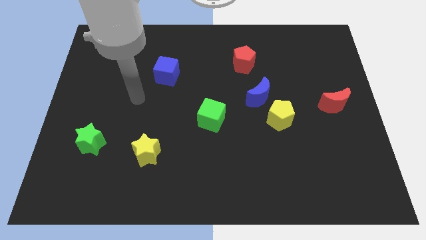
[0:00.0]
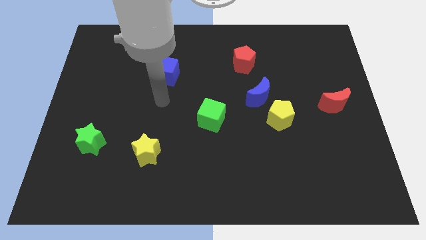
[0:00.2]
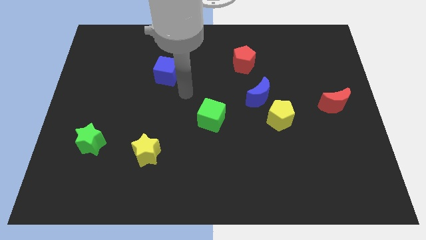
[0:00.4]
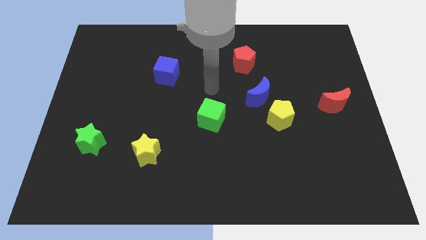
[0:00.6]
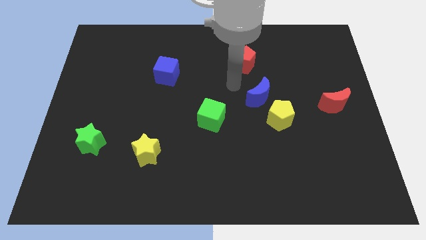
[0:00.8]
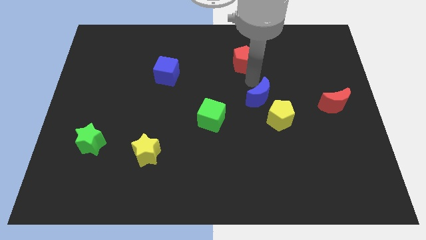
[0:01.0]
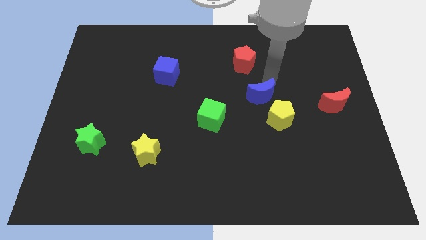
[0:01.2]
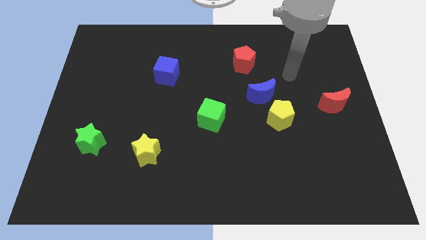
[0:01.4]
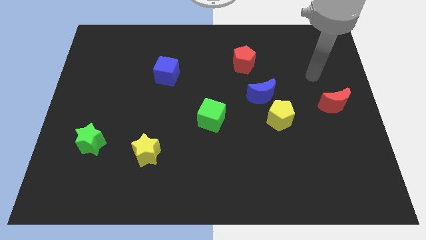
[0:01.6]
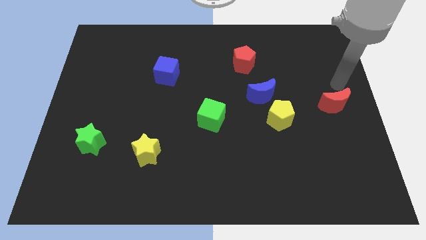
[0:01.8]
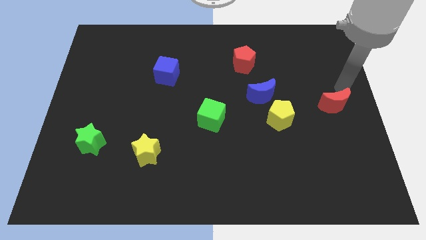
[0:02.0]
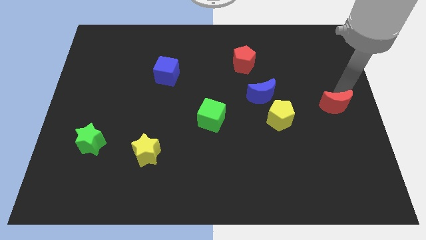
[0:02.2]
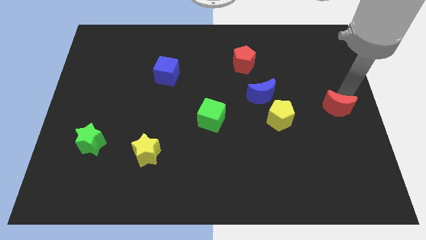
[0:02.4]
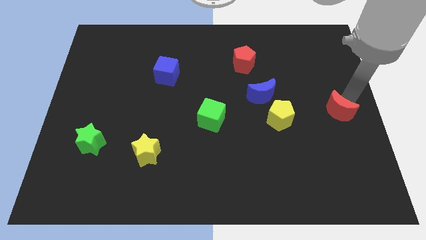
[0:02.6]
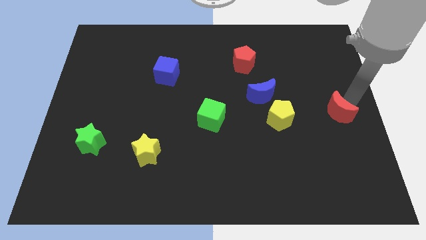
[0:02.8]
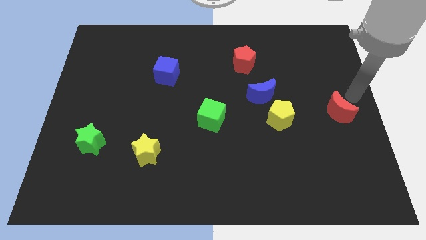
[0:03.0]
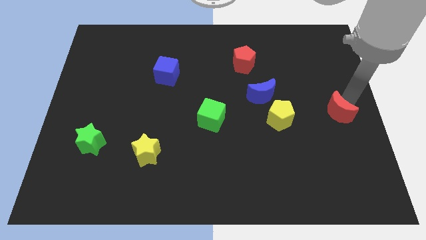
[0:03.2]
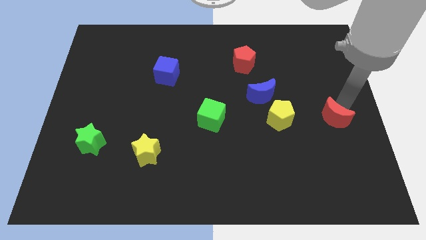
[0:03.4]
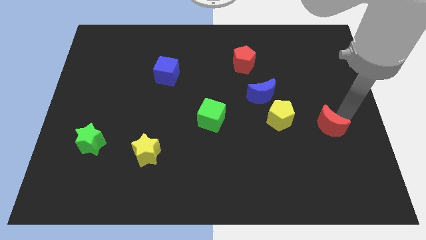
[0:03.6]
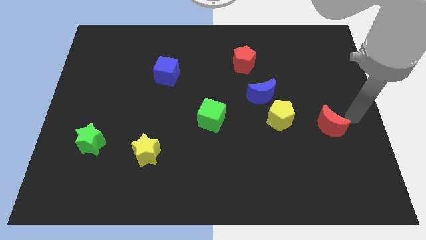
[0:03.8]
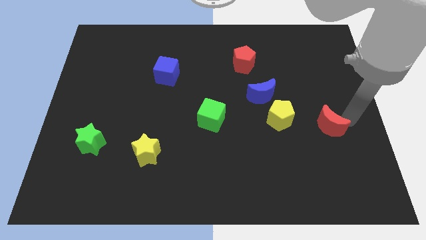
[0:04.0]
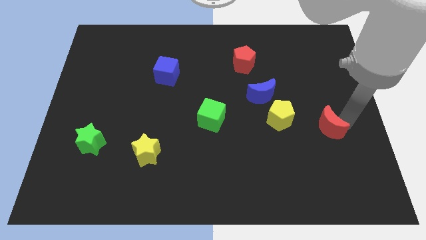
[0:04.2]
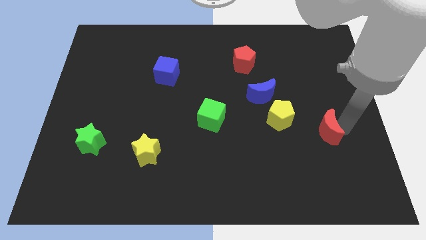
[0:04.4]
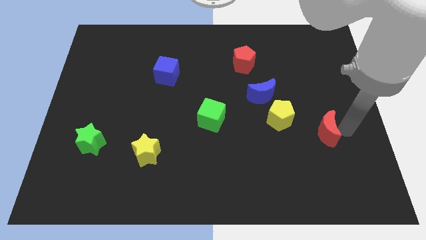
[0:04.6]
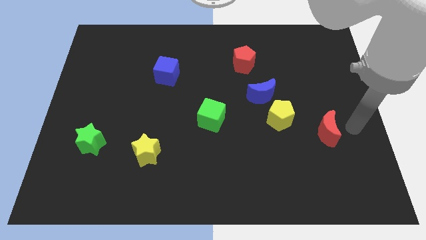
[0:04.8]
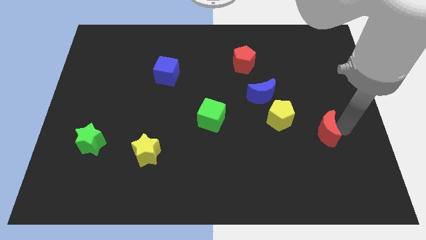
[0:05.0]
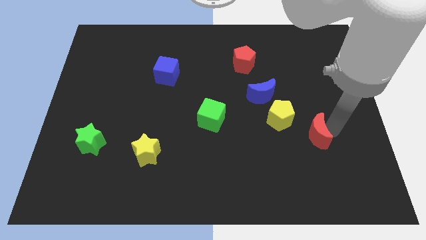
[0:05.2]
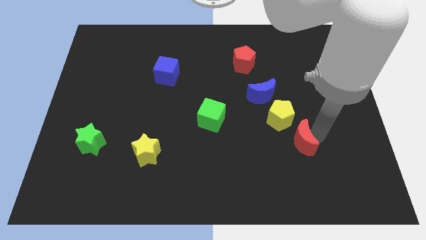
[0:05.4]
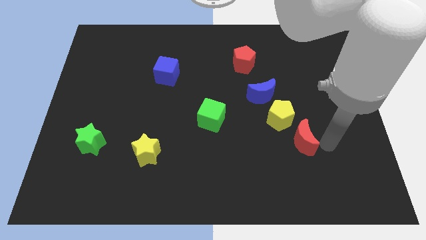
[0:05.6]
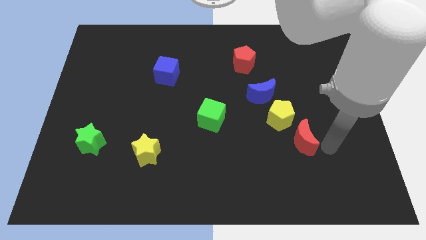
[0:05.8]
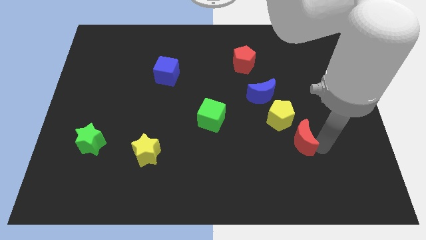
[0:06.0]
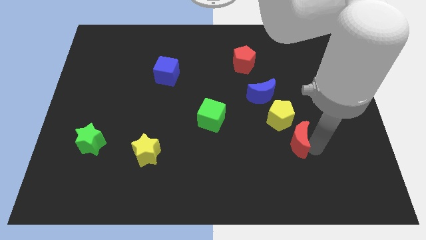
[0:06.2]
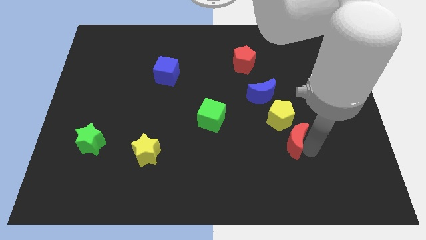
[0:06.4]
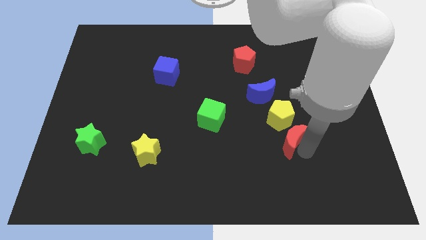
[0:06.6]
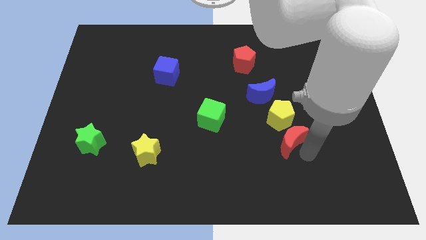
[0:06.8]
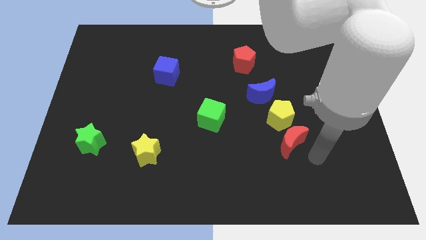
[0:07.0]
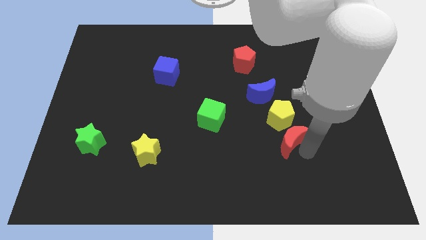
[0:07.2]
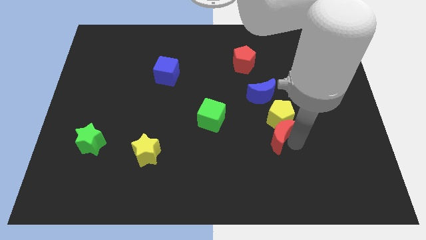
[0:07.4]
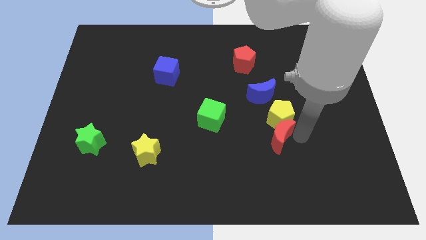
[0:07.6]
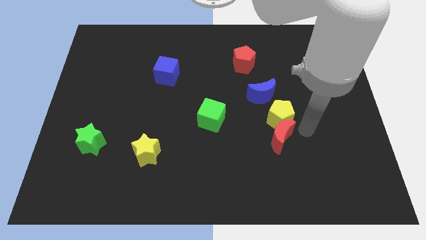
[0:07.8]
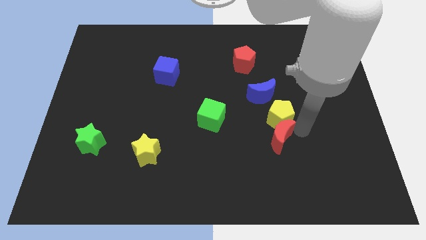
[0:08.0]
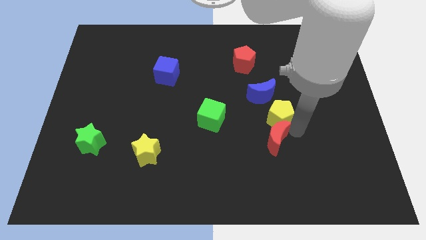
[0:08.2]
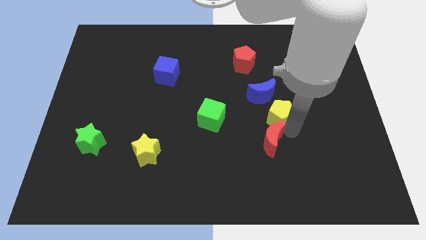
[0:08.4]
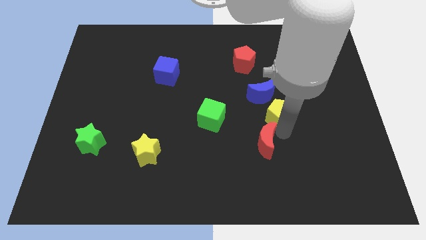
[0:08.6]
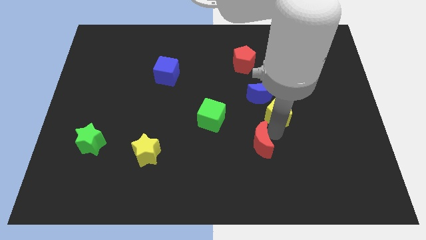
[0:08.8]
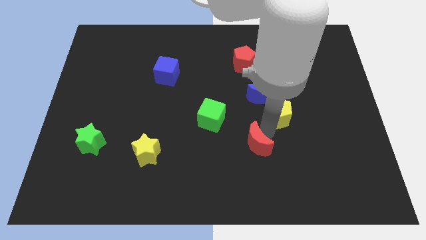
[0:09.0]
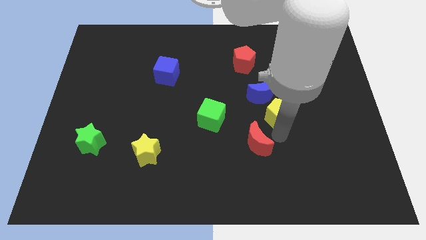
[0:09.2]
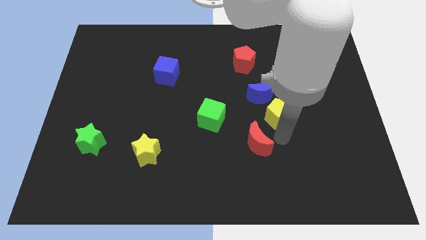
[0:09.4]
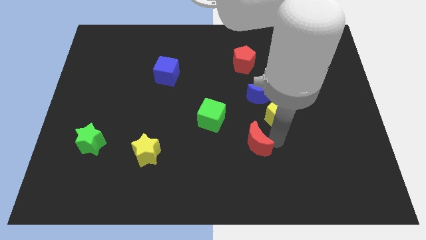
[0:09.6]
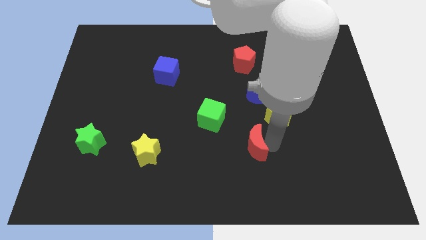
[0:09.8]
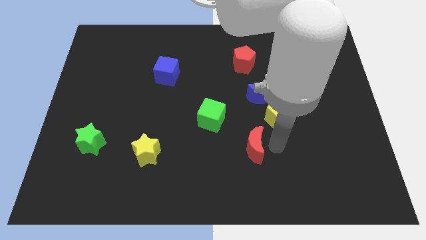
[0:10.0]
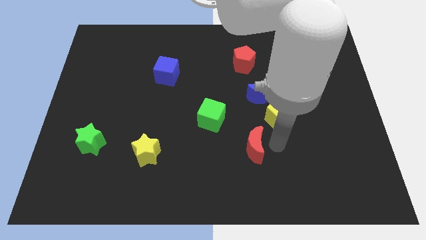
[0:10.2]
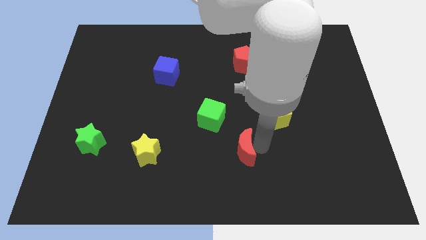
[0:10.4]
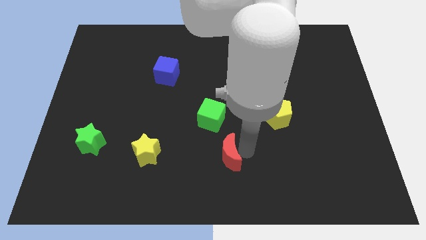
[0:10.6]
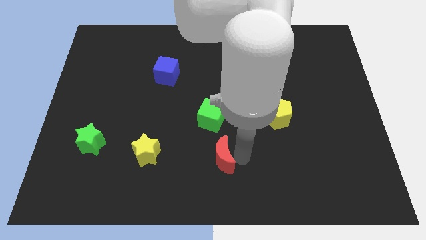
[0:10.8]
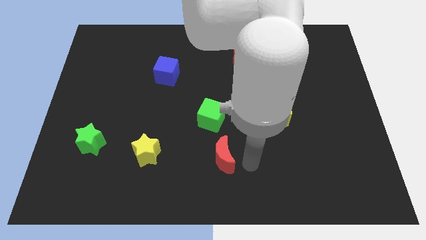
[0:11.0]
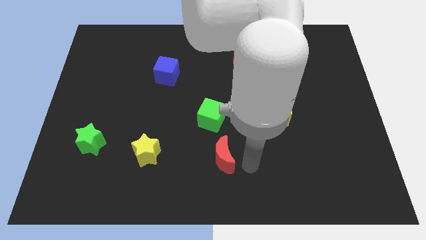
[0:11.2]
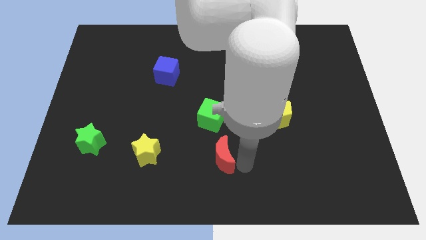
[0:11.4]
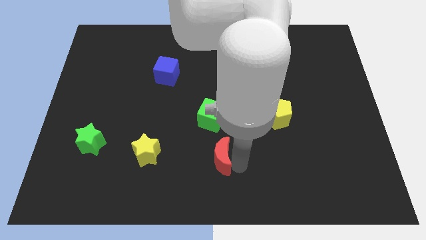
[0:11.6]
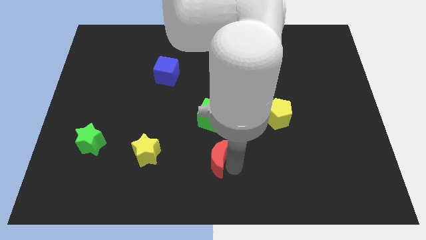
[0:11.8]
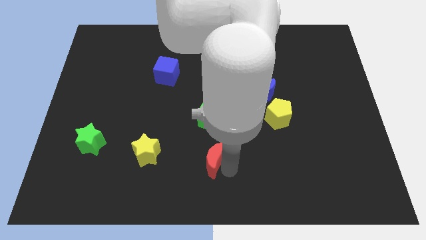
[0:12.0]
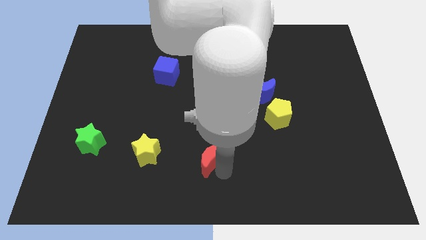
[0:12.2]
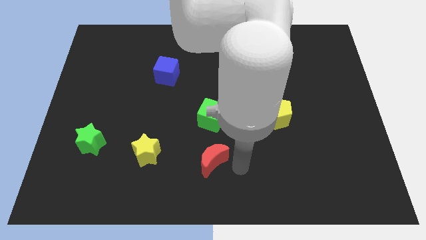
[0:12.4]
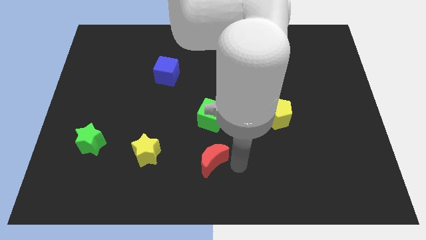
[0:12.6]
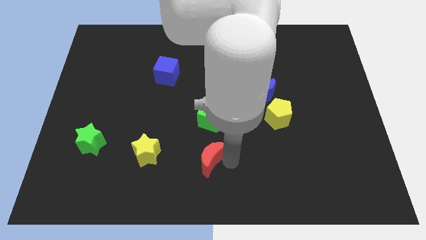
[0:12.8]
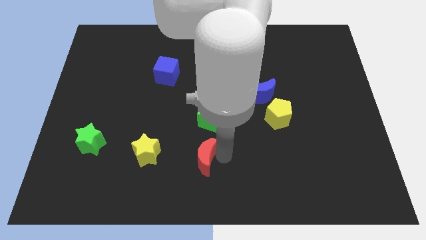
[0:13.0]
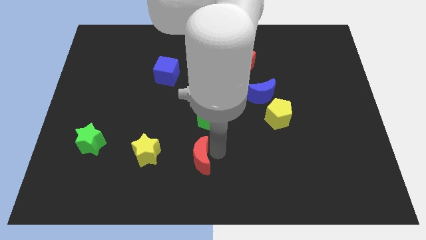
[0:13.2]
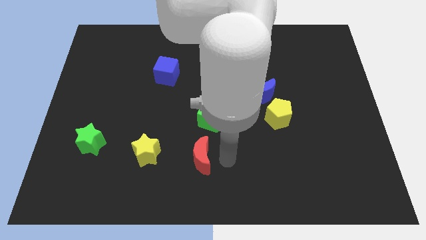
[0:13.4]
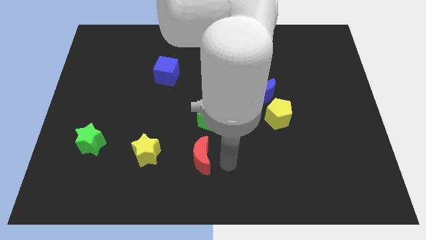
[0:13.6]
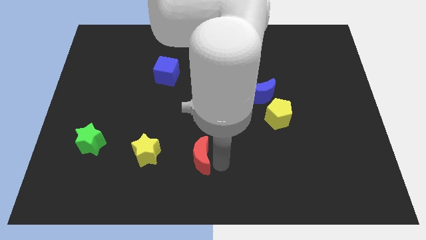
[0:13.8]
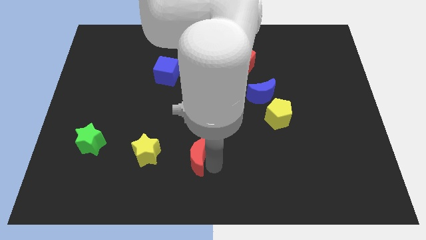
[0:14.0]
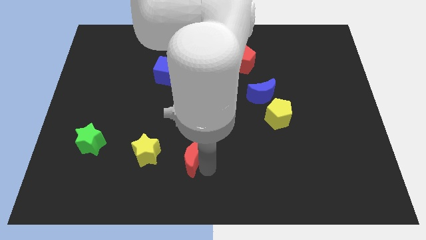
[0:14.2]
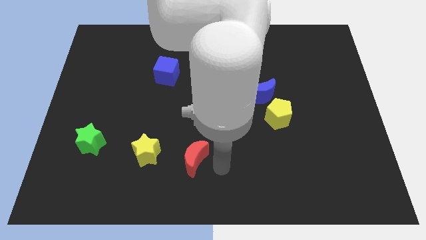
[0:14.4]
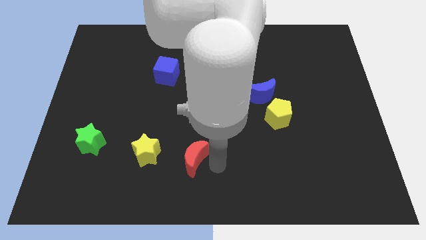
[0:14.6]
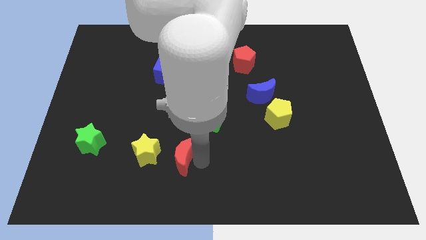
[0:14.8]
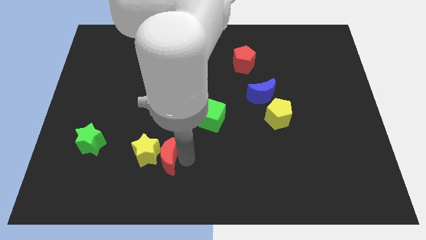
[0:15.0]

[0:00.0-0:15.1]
push the red moon close to the yellow star
